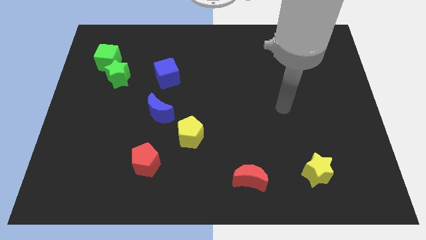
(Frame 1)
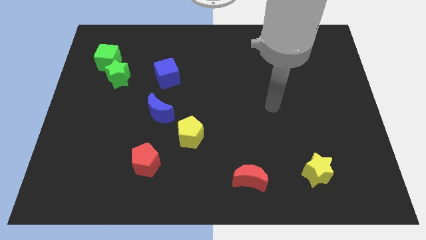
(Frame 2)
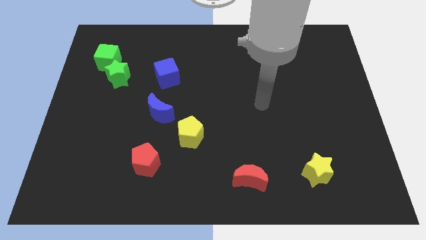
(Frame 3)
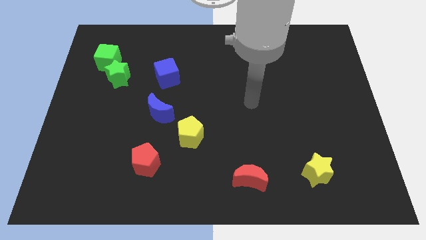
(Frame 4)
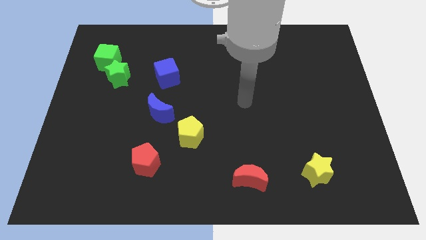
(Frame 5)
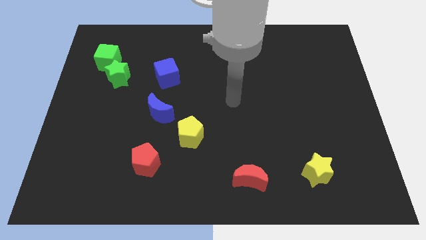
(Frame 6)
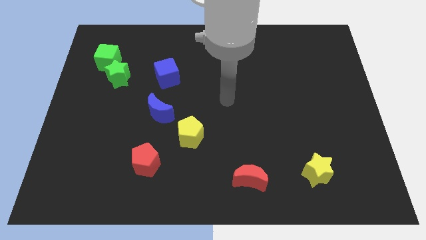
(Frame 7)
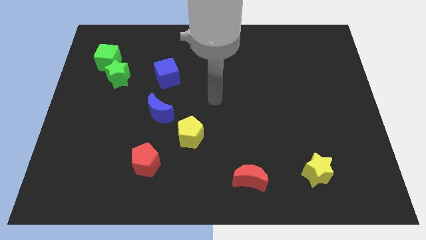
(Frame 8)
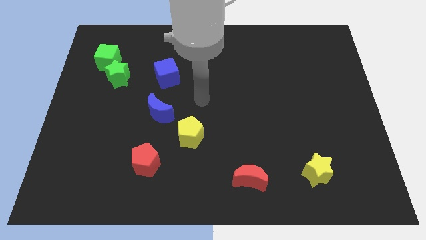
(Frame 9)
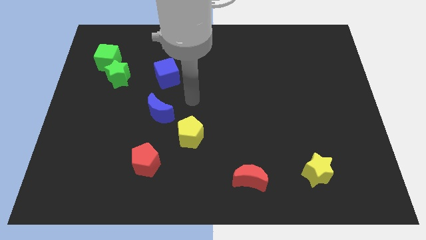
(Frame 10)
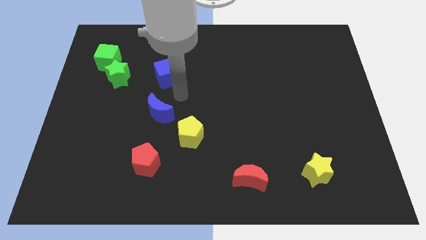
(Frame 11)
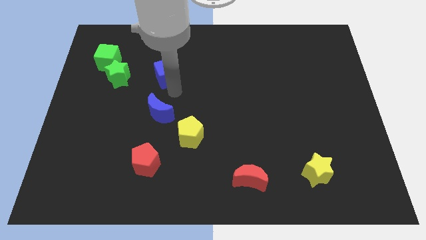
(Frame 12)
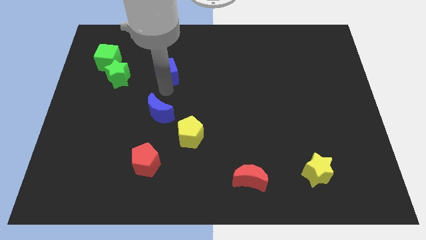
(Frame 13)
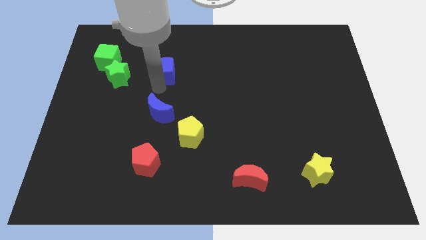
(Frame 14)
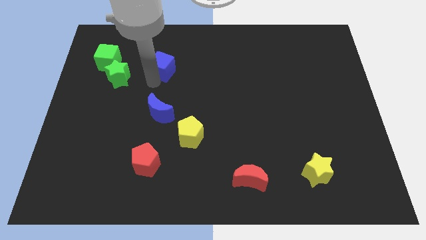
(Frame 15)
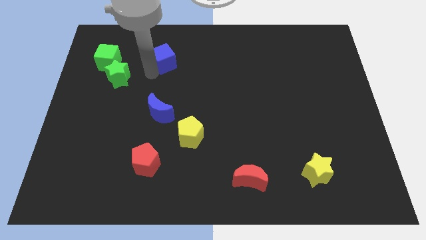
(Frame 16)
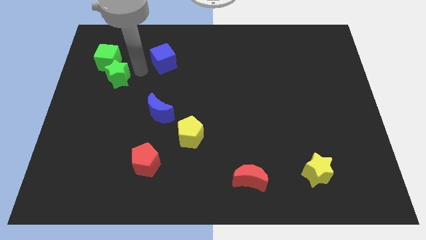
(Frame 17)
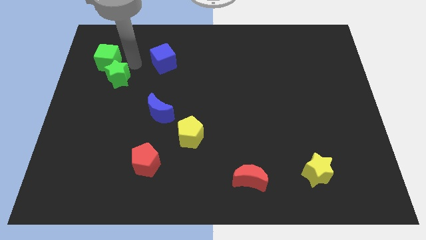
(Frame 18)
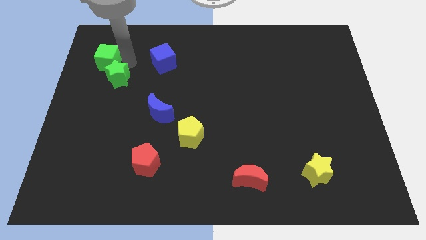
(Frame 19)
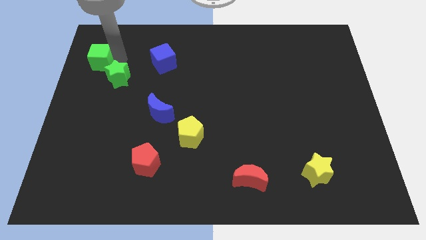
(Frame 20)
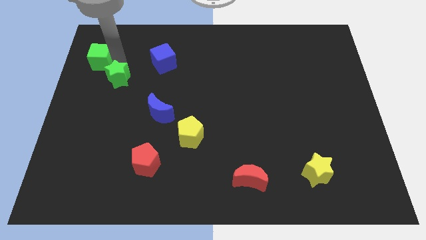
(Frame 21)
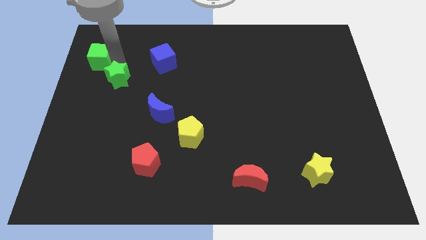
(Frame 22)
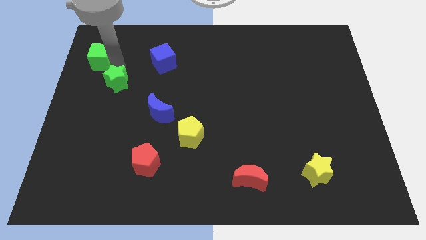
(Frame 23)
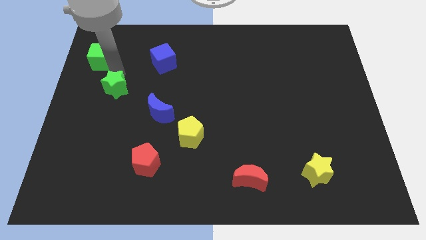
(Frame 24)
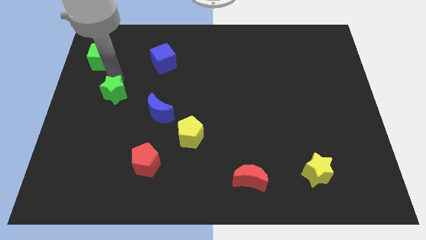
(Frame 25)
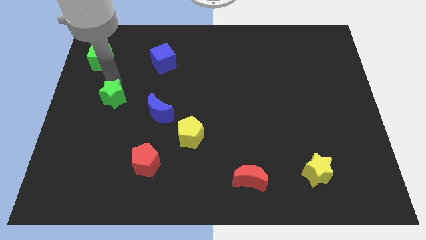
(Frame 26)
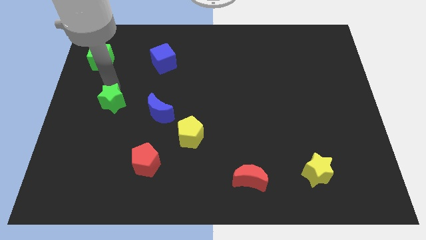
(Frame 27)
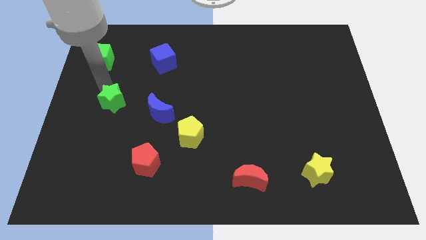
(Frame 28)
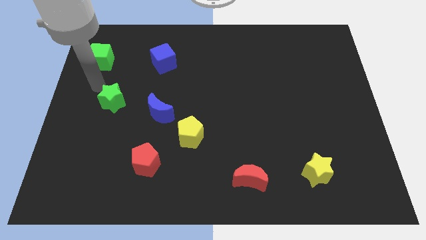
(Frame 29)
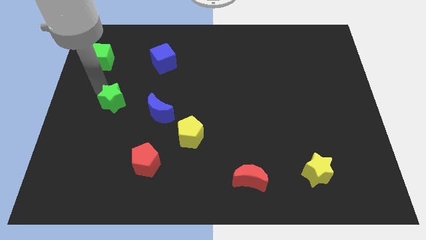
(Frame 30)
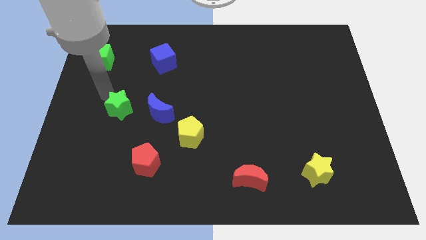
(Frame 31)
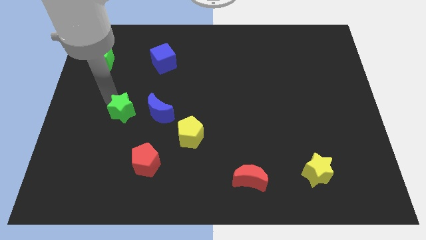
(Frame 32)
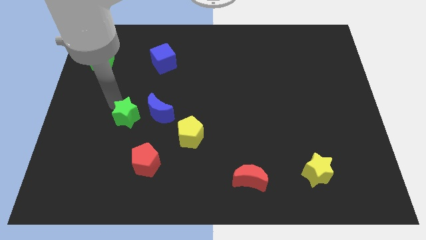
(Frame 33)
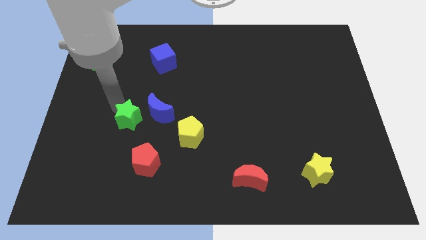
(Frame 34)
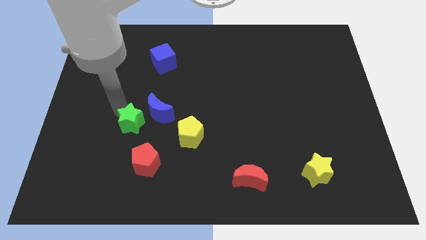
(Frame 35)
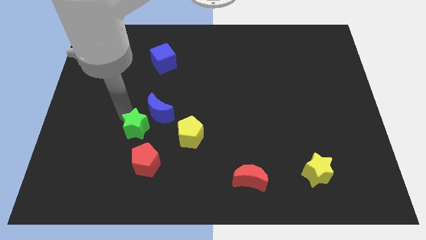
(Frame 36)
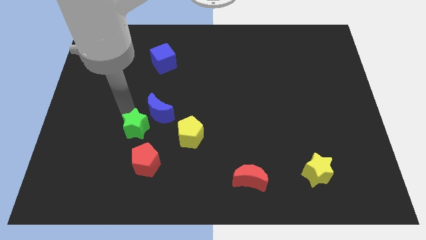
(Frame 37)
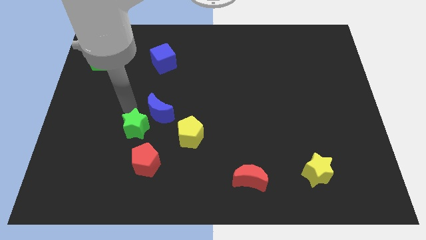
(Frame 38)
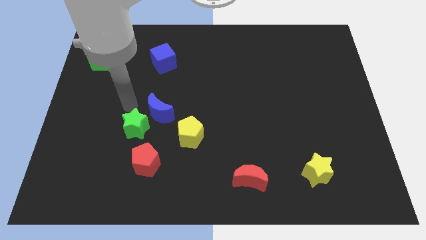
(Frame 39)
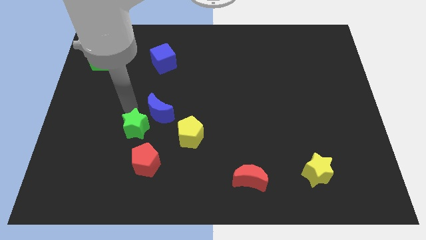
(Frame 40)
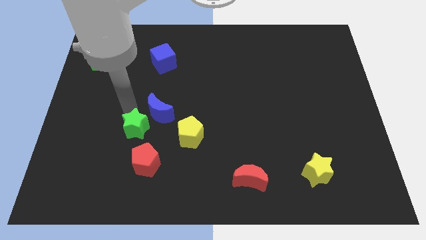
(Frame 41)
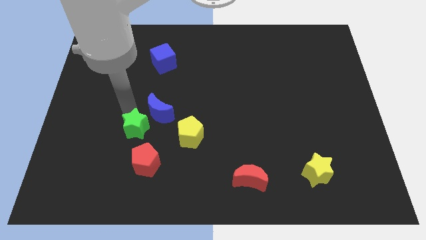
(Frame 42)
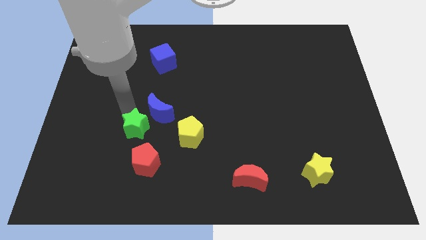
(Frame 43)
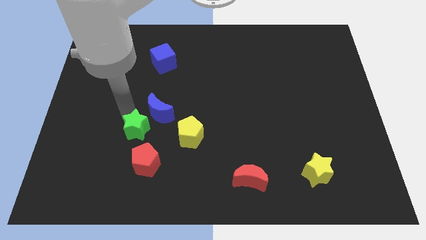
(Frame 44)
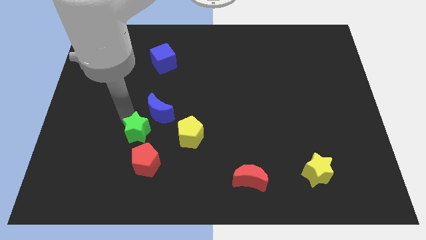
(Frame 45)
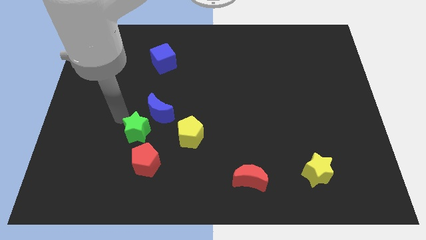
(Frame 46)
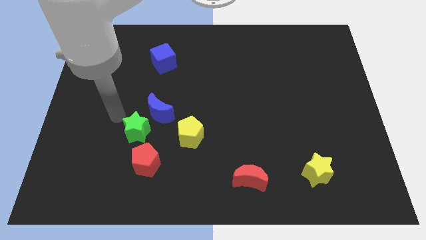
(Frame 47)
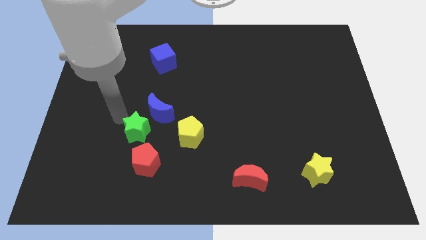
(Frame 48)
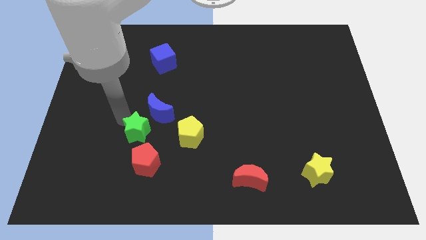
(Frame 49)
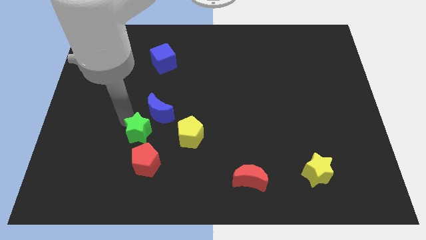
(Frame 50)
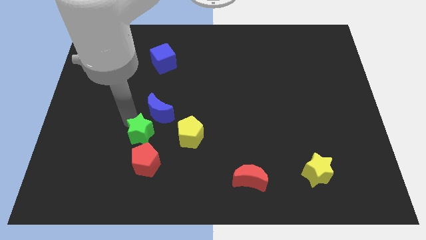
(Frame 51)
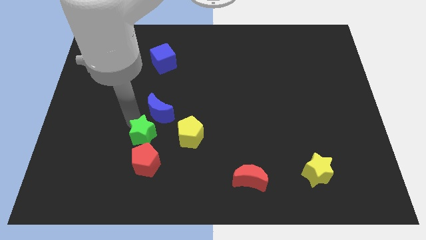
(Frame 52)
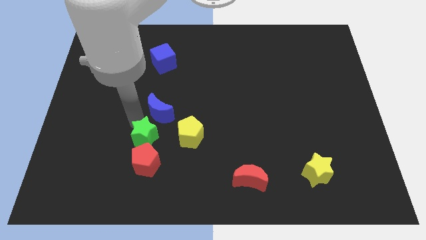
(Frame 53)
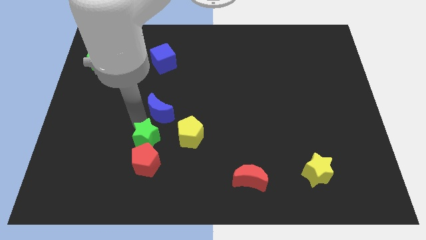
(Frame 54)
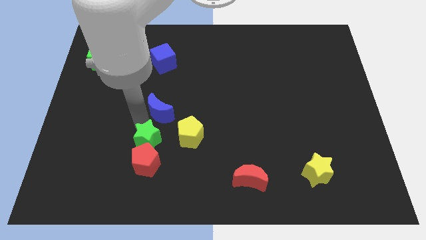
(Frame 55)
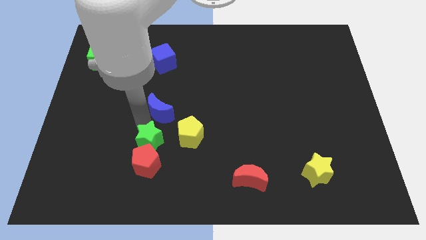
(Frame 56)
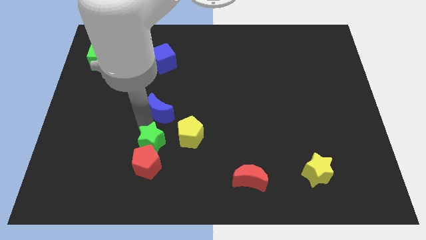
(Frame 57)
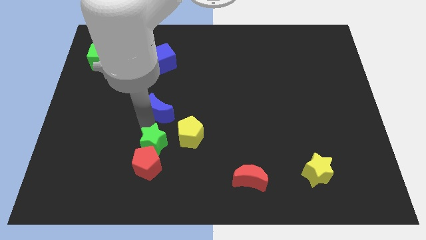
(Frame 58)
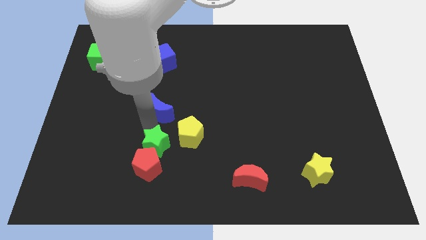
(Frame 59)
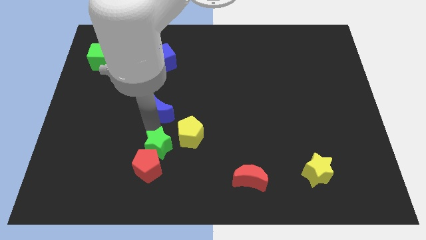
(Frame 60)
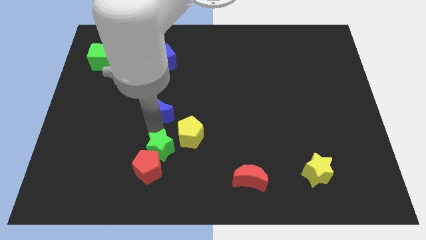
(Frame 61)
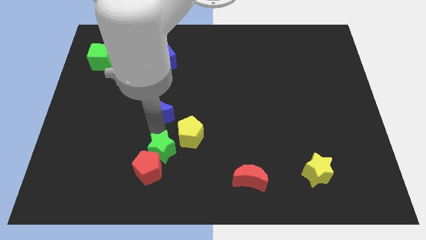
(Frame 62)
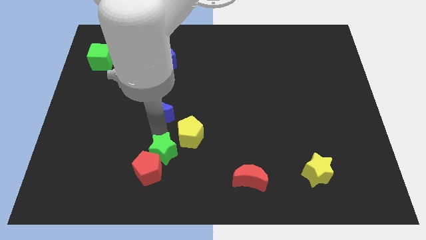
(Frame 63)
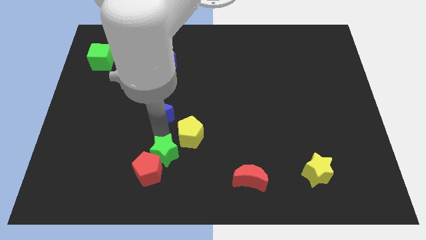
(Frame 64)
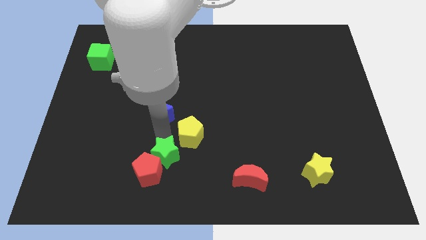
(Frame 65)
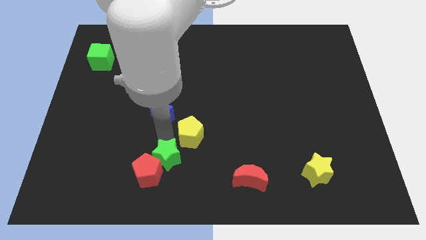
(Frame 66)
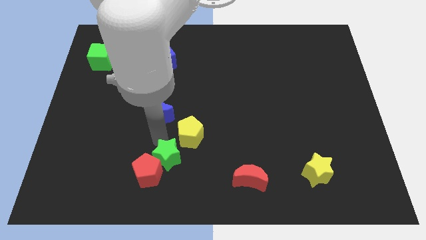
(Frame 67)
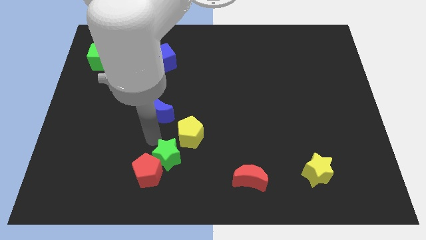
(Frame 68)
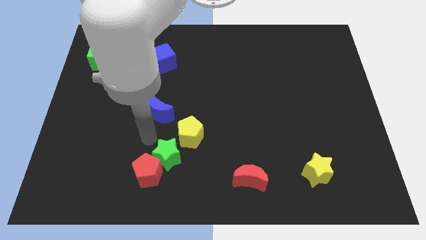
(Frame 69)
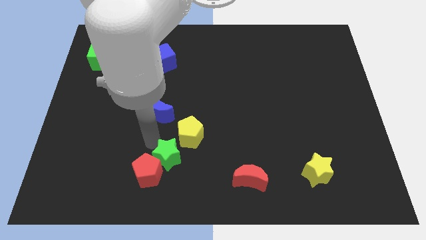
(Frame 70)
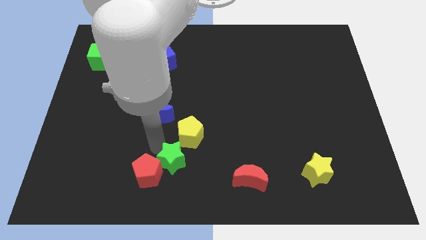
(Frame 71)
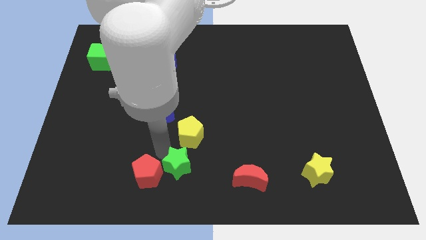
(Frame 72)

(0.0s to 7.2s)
move the green star to the bottom

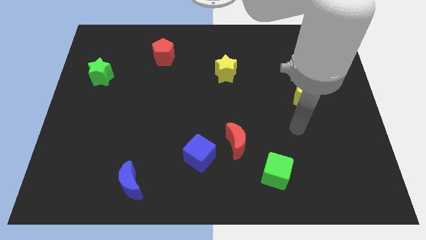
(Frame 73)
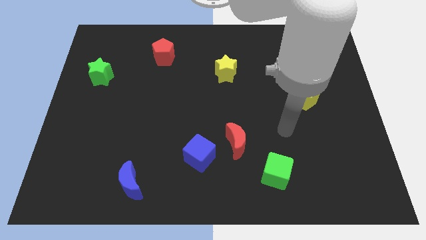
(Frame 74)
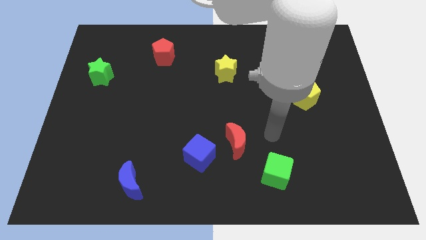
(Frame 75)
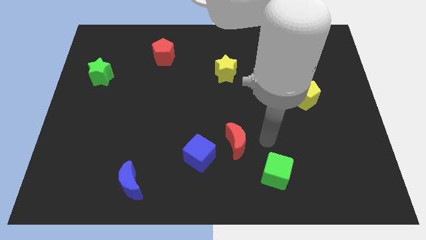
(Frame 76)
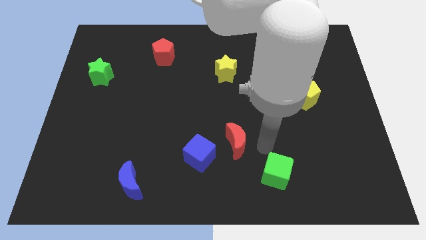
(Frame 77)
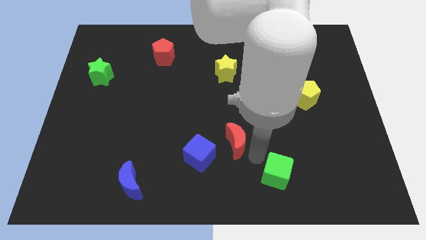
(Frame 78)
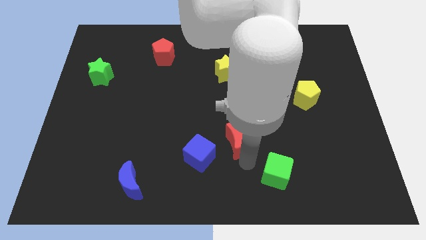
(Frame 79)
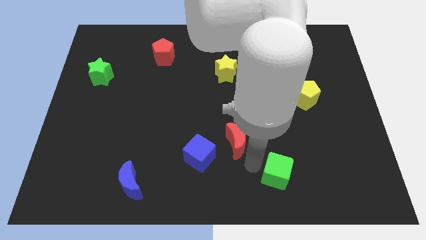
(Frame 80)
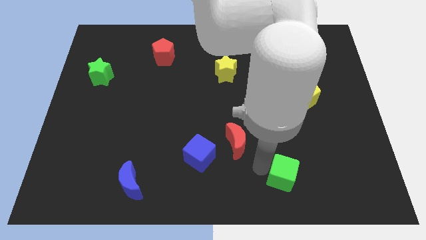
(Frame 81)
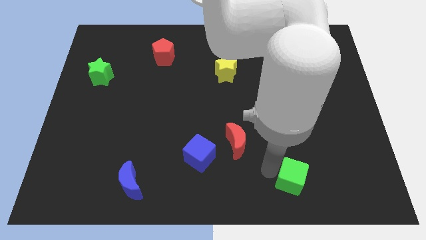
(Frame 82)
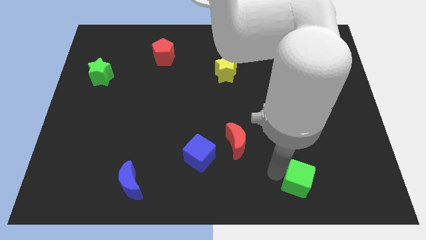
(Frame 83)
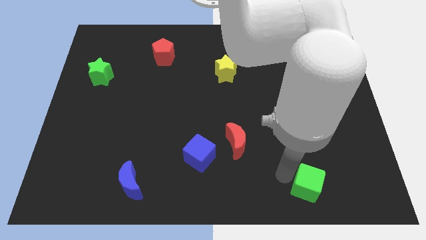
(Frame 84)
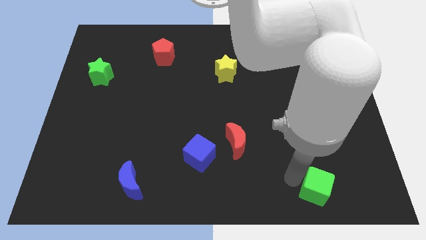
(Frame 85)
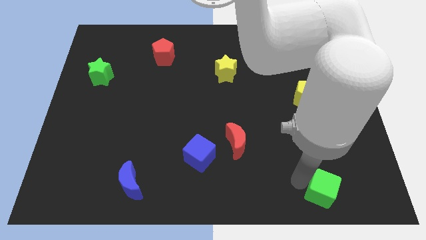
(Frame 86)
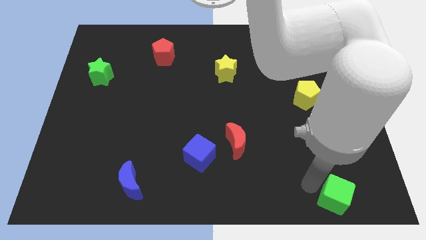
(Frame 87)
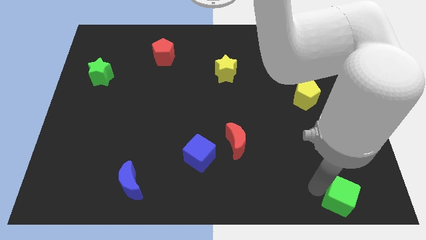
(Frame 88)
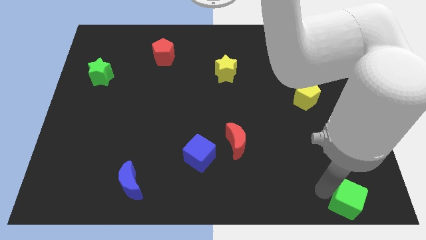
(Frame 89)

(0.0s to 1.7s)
put the green cube to the bottom right of the board
